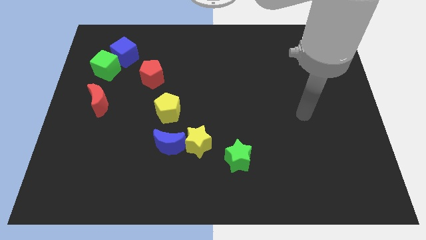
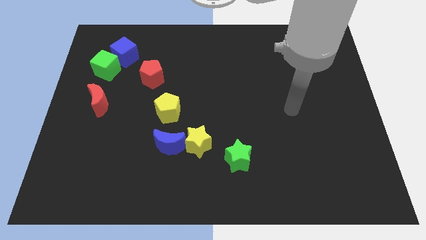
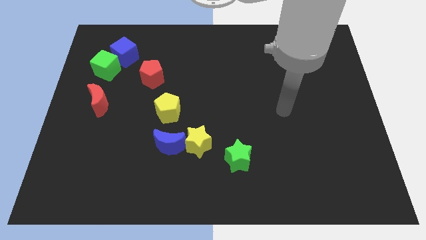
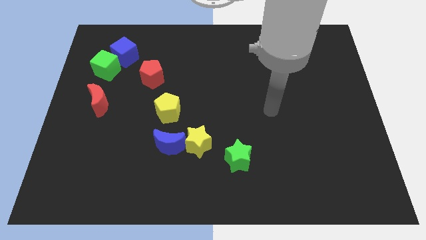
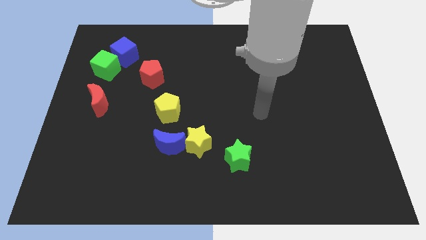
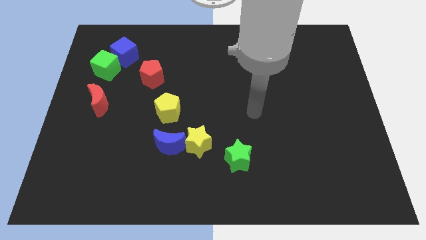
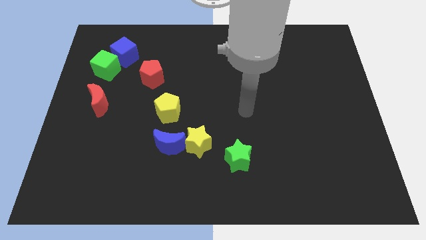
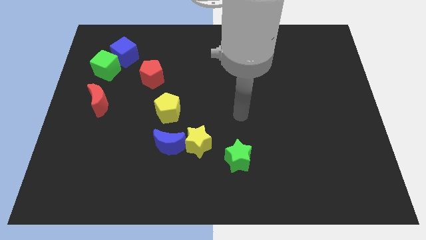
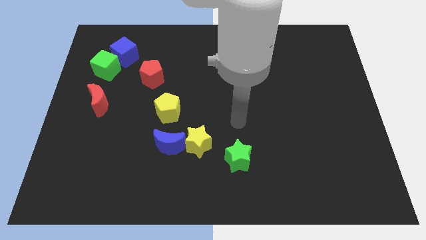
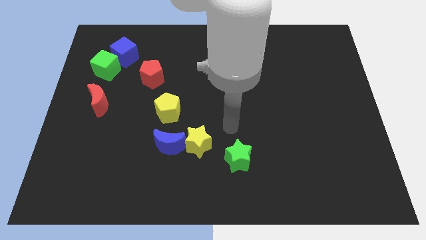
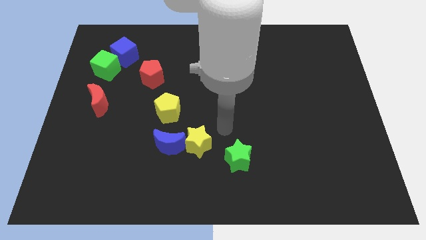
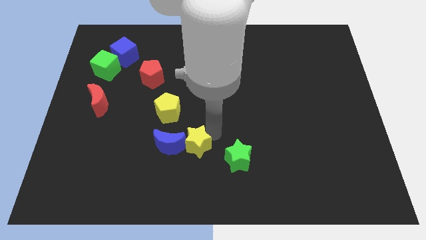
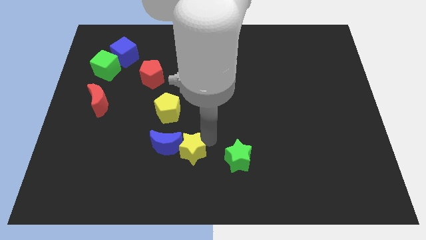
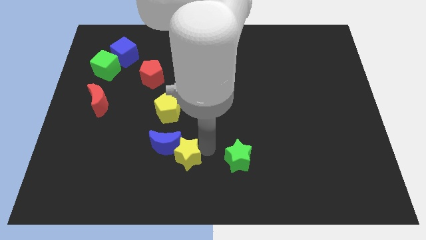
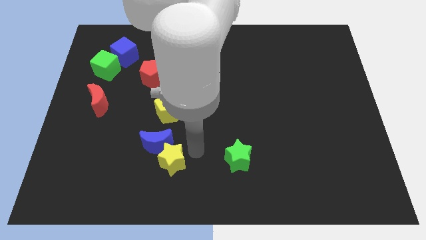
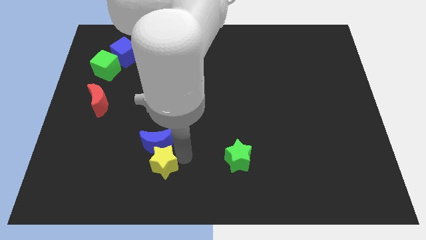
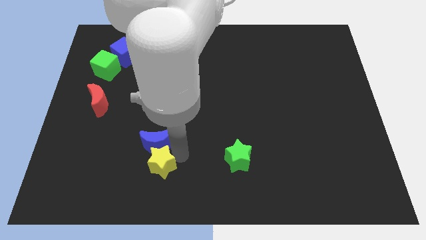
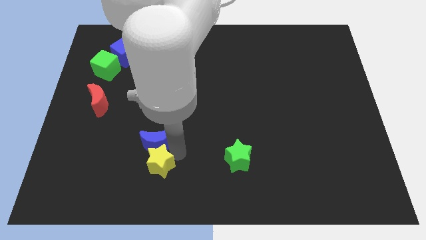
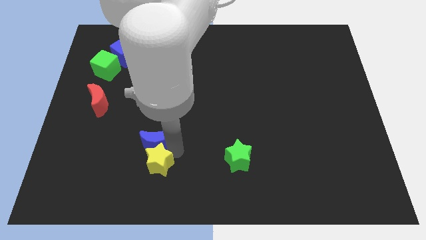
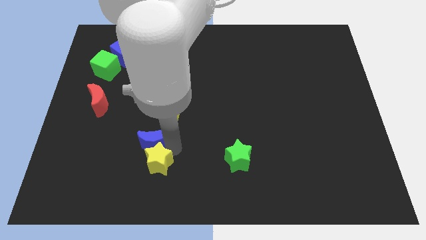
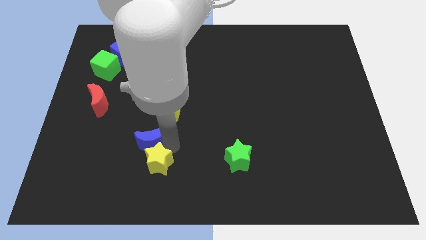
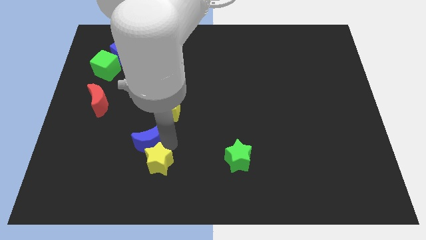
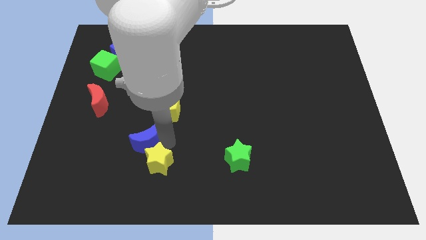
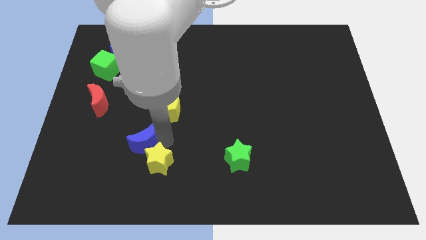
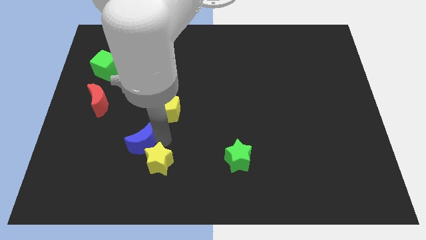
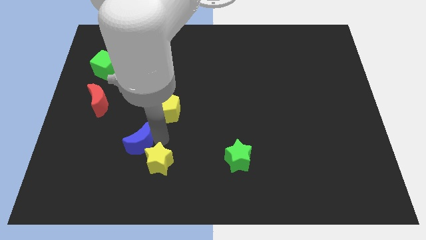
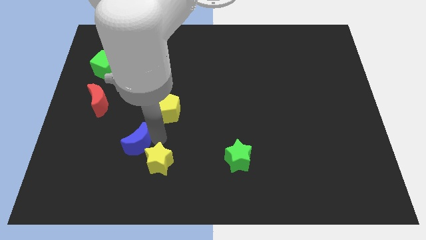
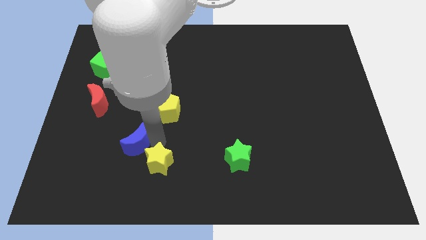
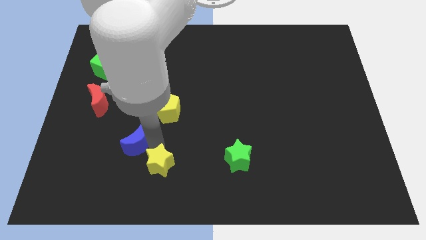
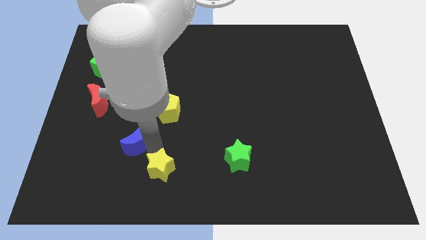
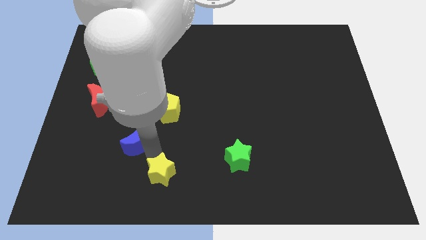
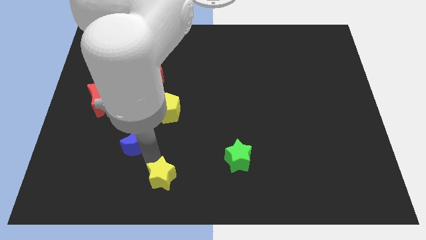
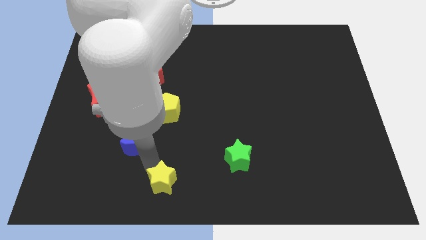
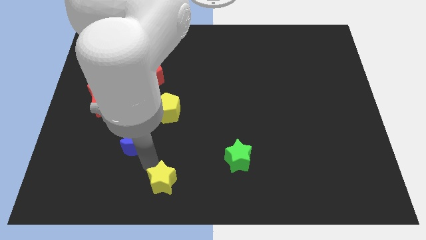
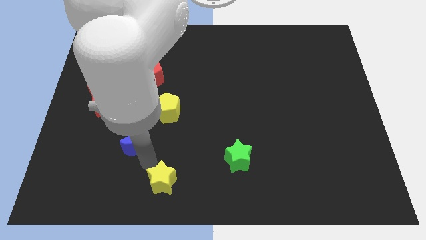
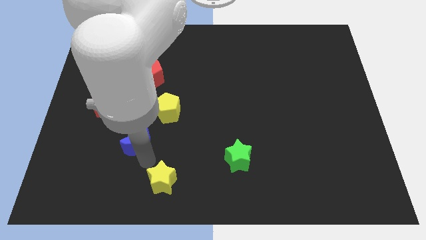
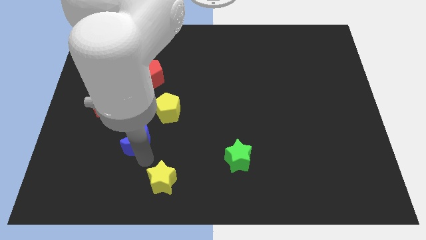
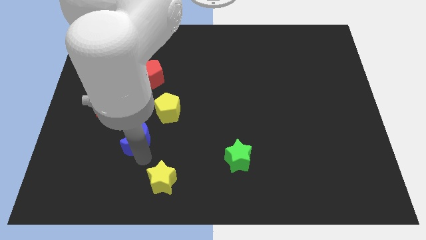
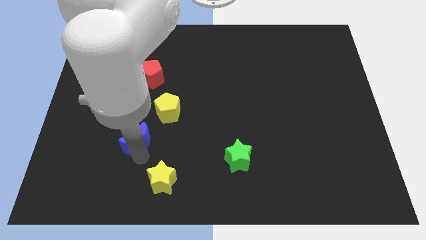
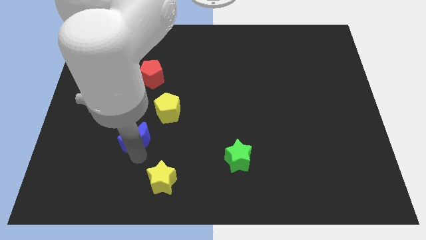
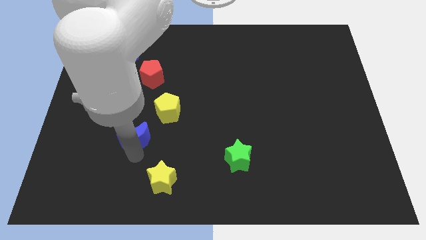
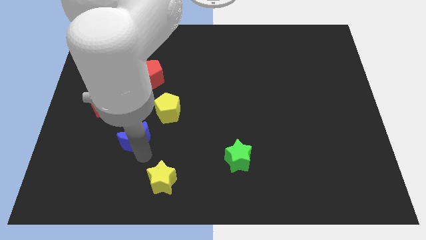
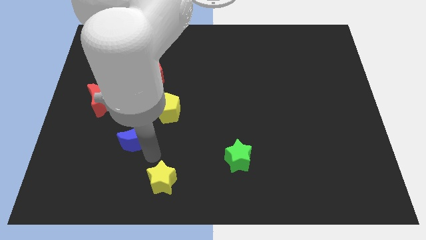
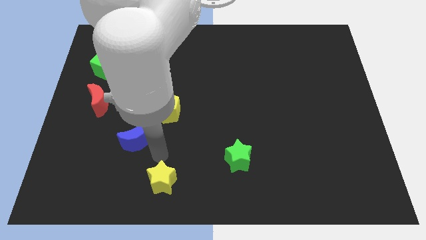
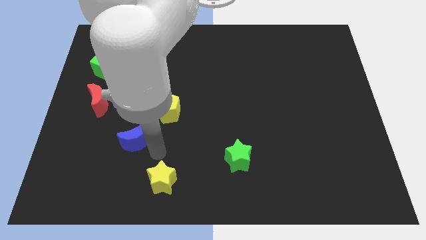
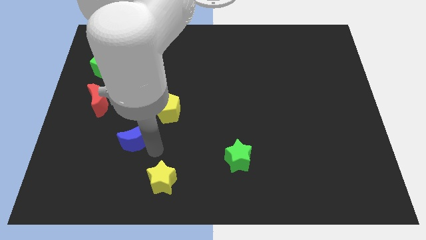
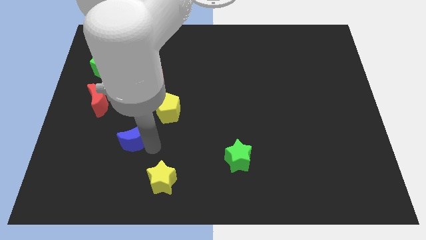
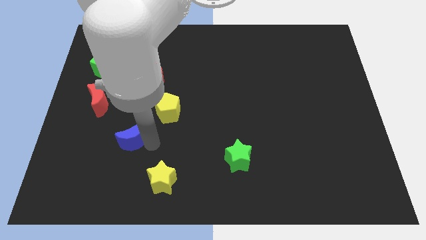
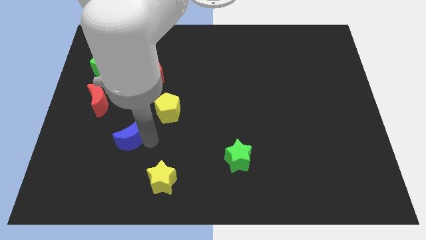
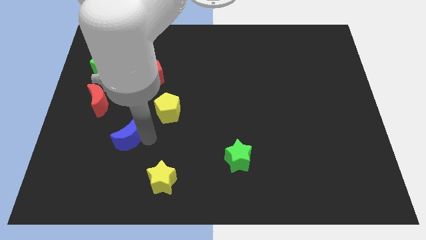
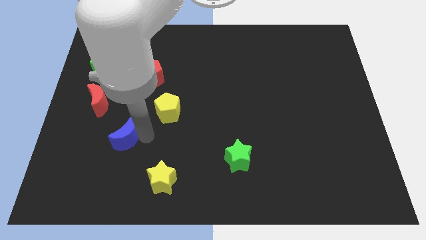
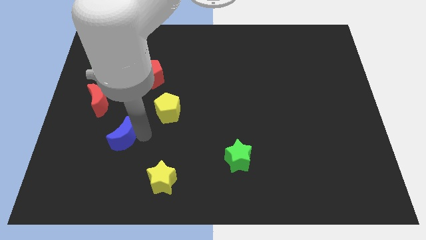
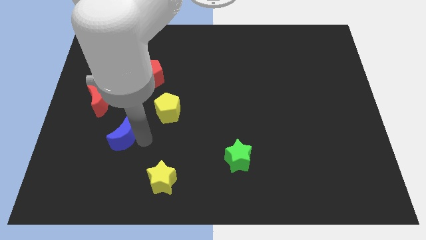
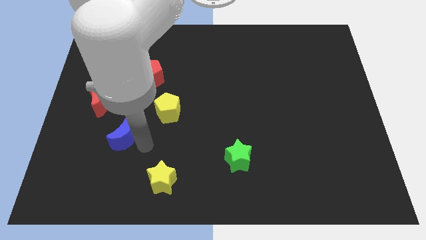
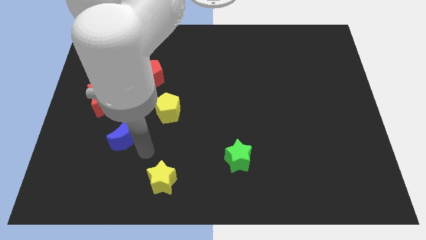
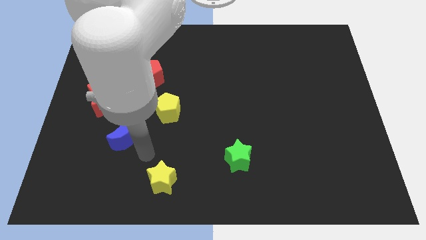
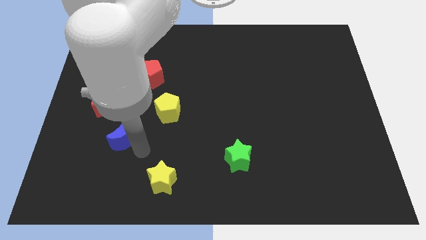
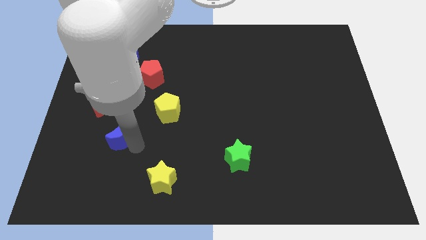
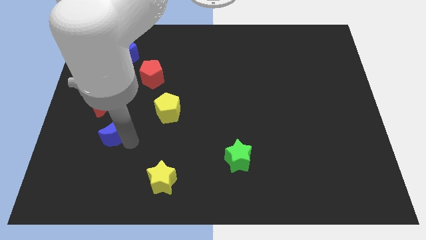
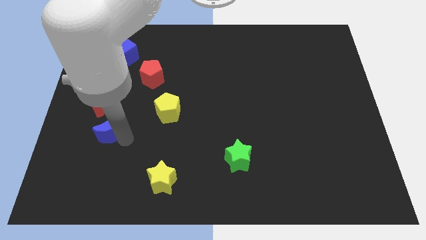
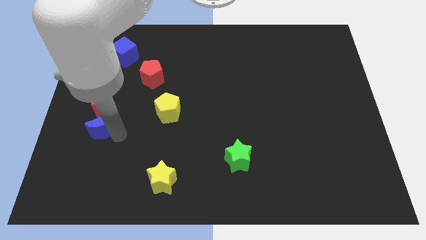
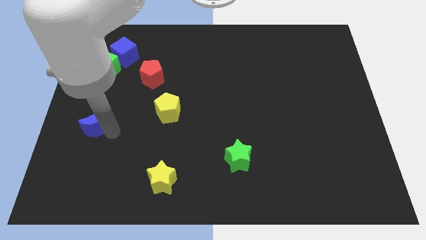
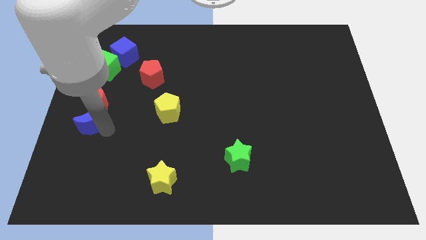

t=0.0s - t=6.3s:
move the blue moon to the left side of the board
